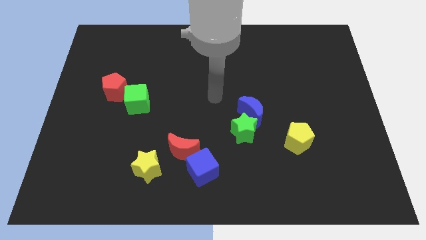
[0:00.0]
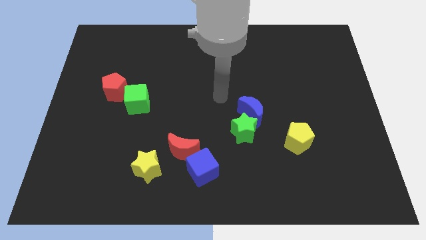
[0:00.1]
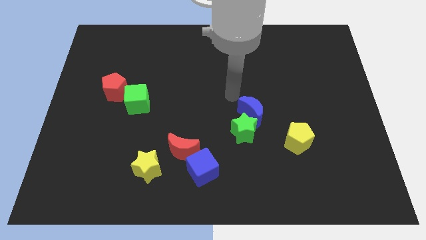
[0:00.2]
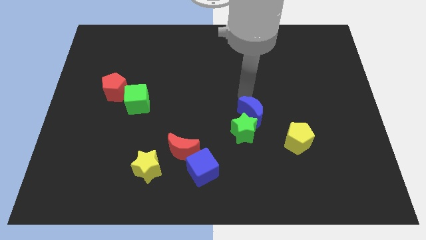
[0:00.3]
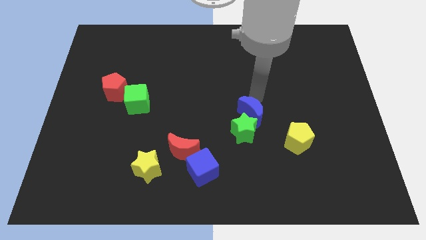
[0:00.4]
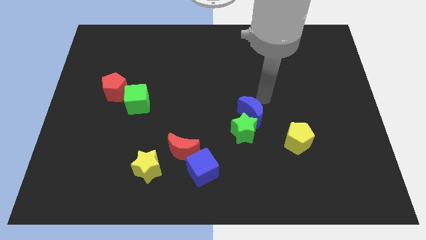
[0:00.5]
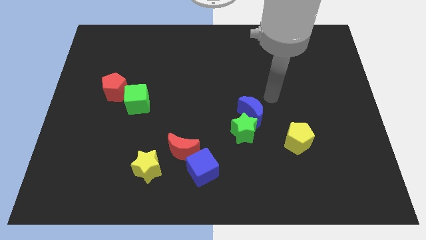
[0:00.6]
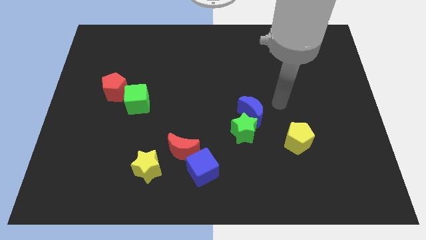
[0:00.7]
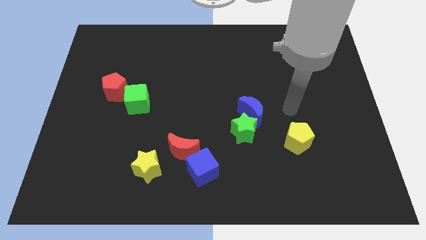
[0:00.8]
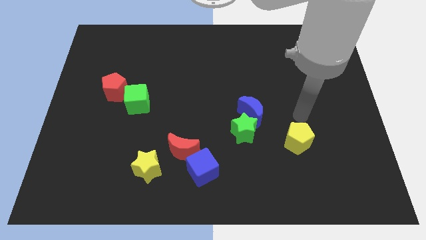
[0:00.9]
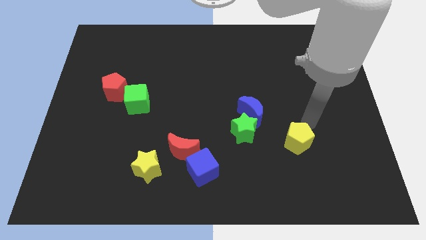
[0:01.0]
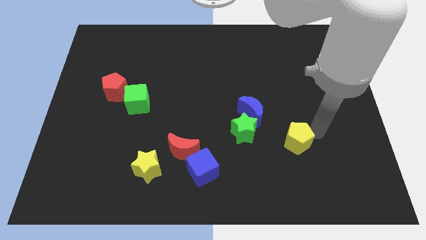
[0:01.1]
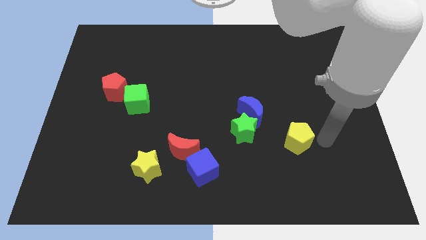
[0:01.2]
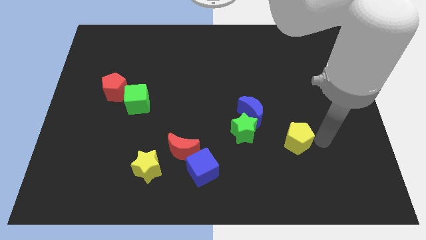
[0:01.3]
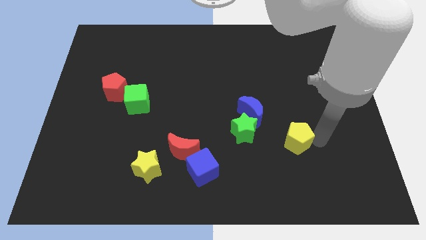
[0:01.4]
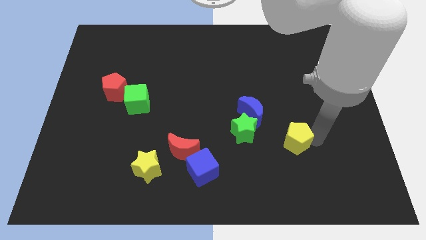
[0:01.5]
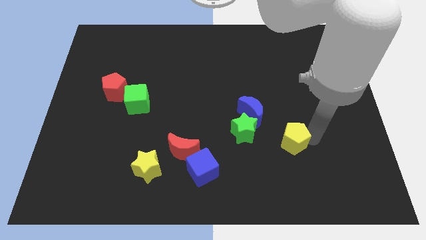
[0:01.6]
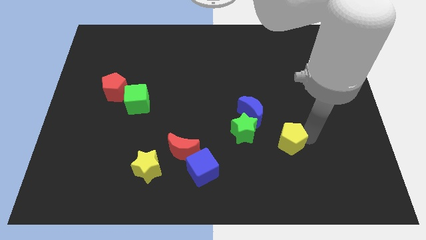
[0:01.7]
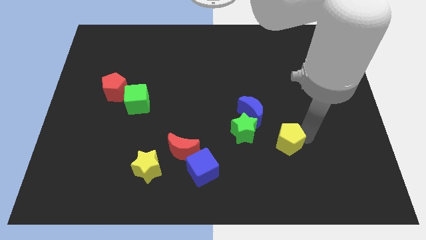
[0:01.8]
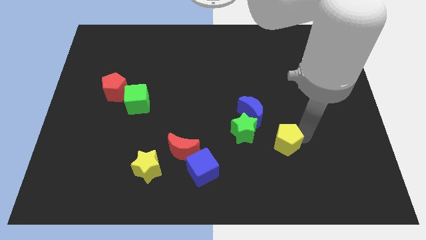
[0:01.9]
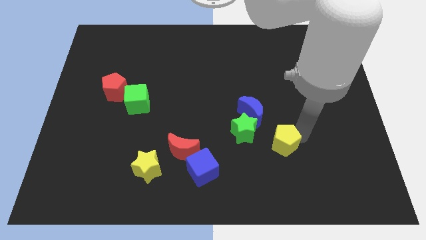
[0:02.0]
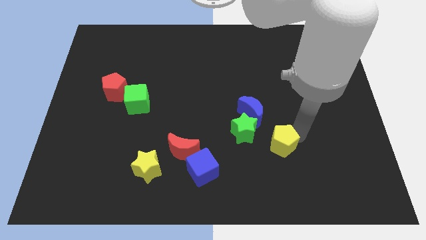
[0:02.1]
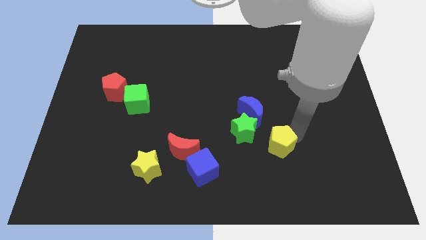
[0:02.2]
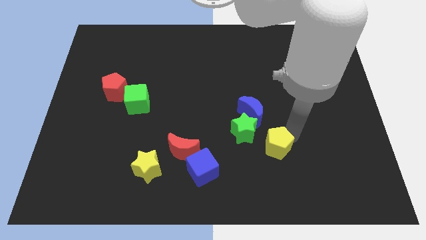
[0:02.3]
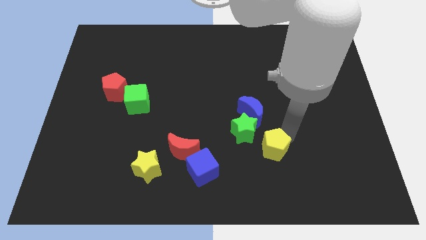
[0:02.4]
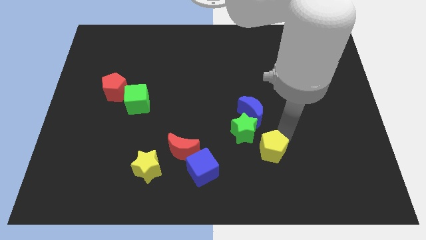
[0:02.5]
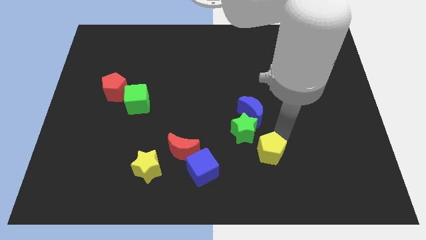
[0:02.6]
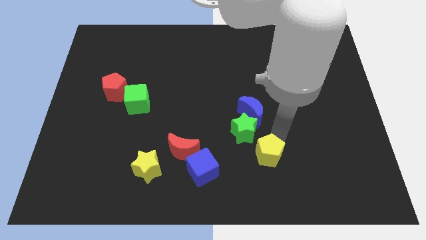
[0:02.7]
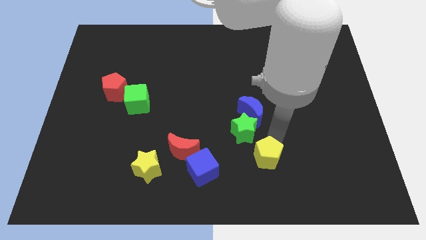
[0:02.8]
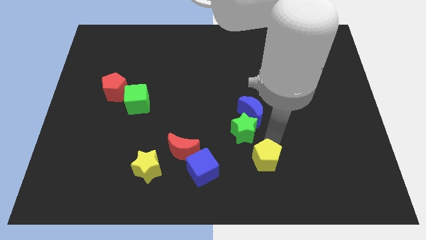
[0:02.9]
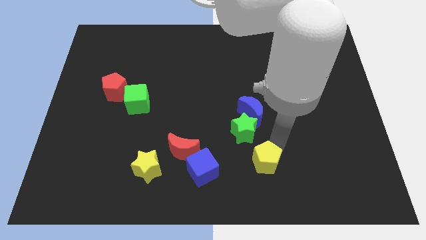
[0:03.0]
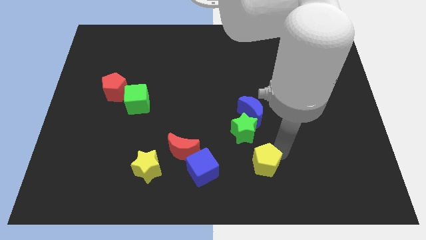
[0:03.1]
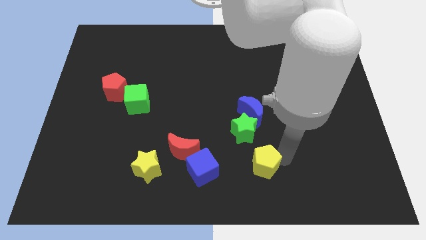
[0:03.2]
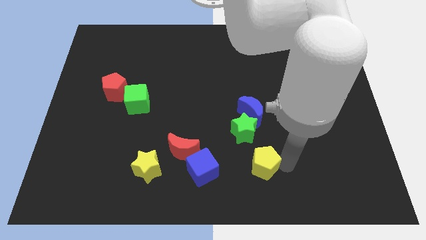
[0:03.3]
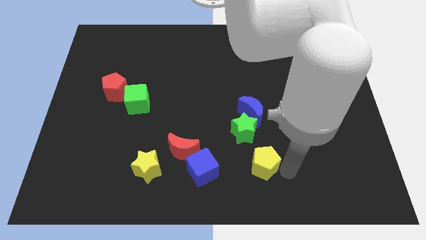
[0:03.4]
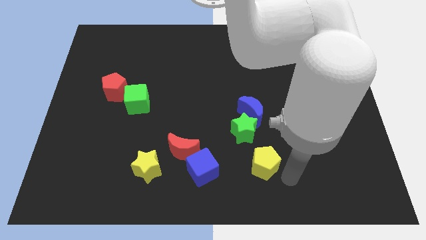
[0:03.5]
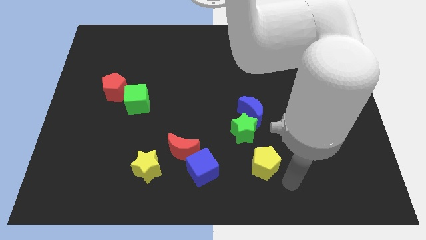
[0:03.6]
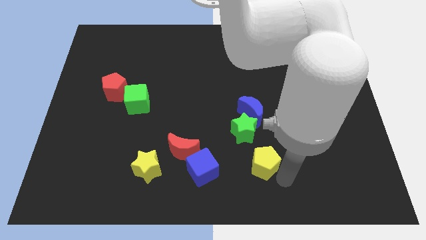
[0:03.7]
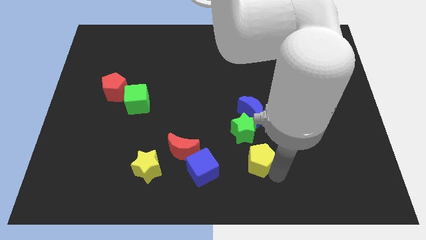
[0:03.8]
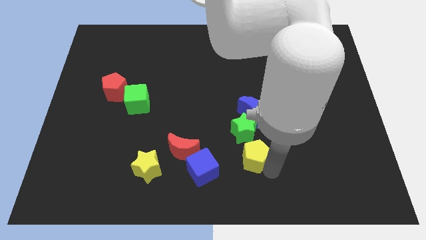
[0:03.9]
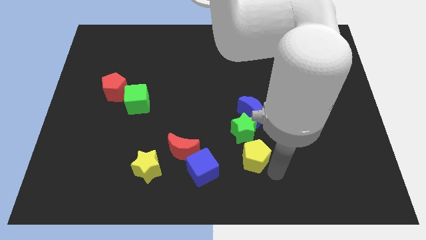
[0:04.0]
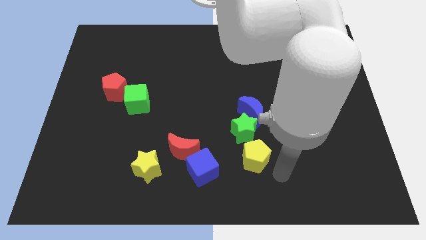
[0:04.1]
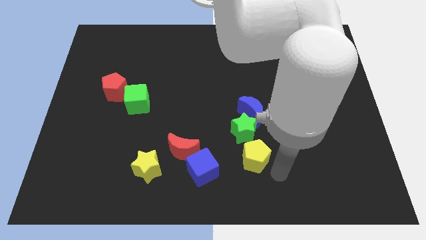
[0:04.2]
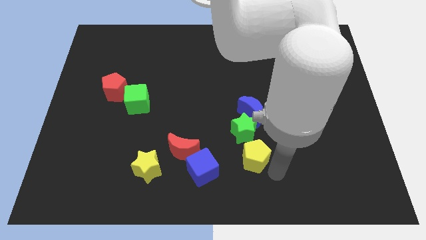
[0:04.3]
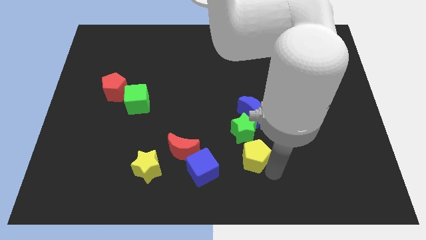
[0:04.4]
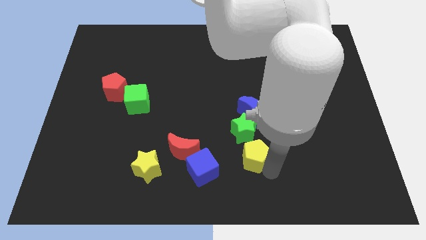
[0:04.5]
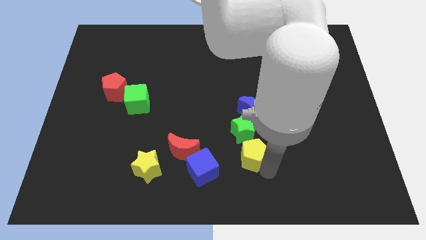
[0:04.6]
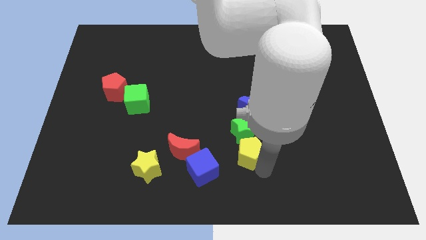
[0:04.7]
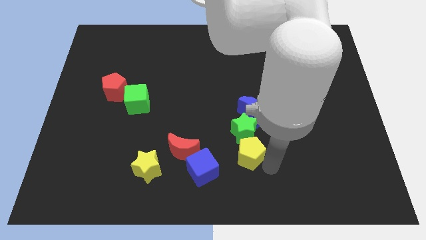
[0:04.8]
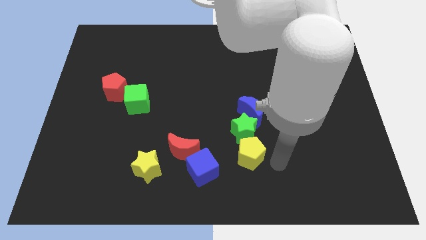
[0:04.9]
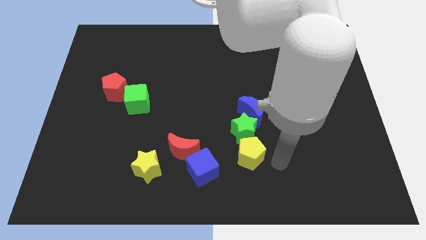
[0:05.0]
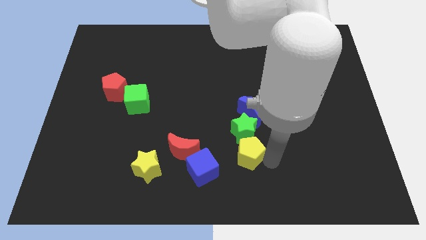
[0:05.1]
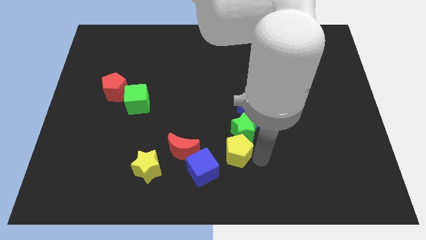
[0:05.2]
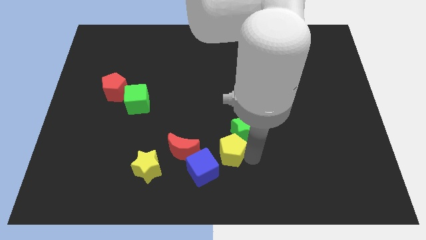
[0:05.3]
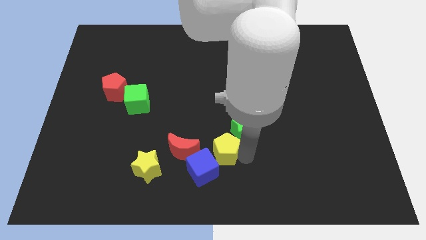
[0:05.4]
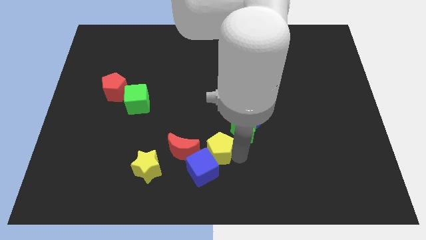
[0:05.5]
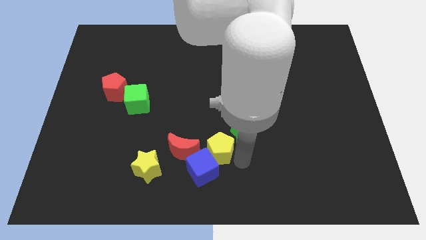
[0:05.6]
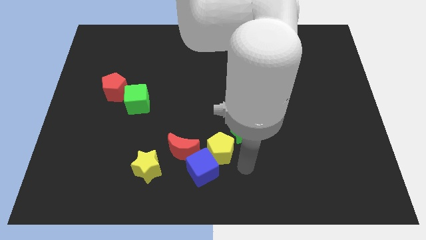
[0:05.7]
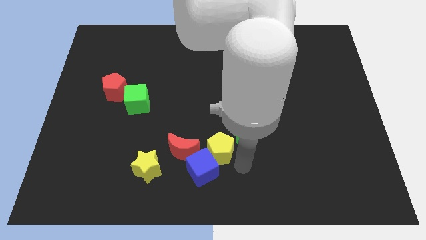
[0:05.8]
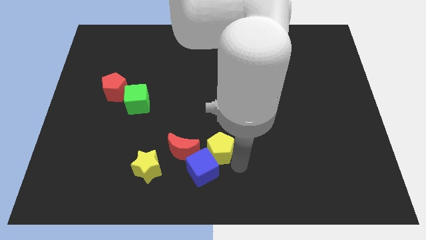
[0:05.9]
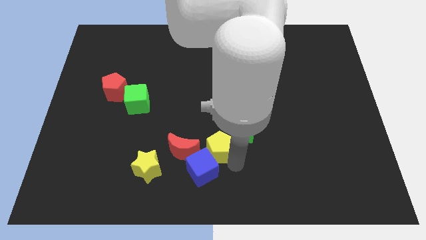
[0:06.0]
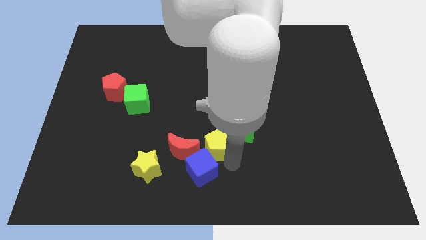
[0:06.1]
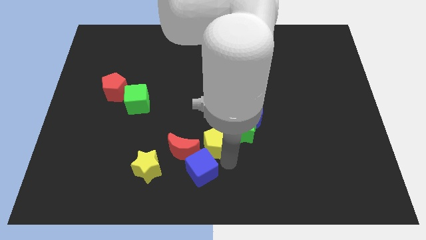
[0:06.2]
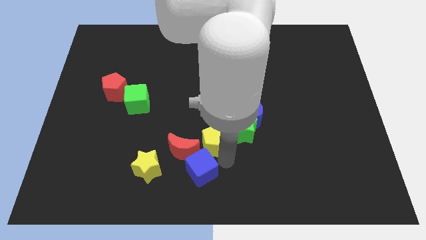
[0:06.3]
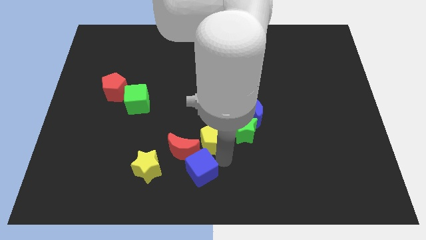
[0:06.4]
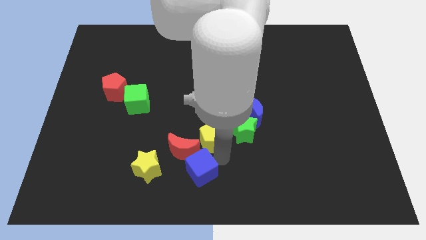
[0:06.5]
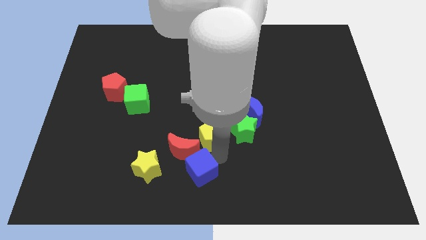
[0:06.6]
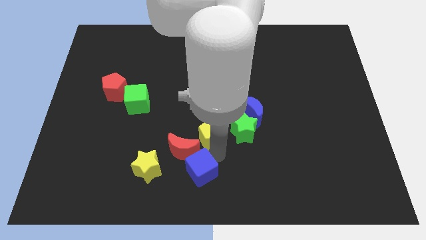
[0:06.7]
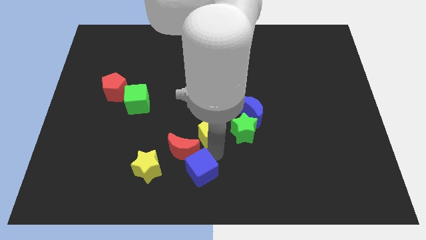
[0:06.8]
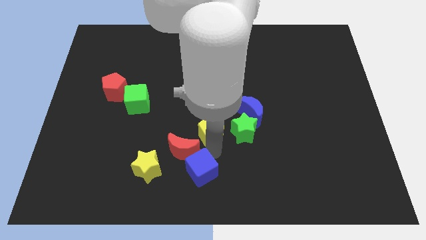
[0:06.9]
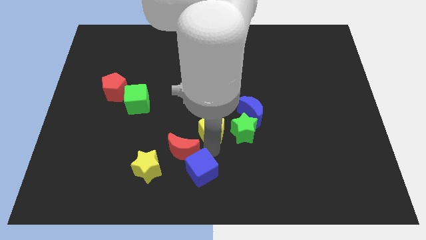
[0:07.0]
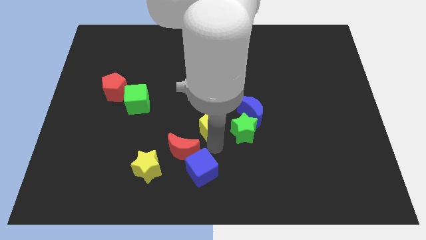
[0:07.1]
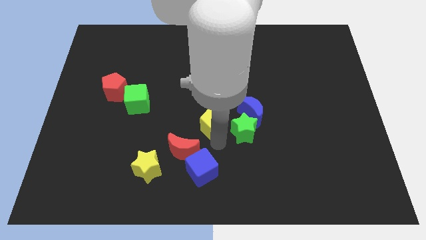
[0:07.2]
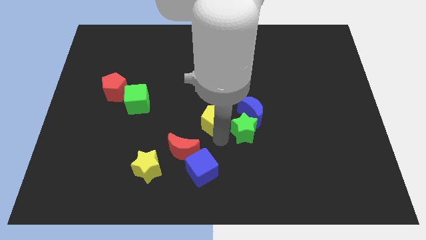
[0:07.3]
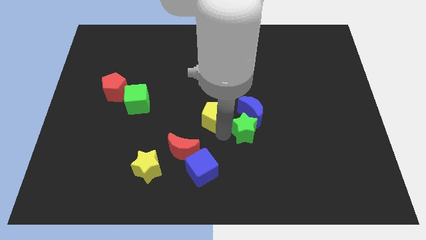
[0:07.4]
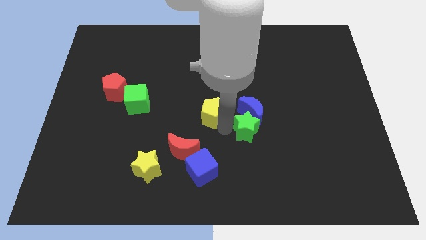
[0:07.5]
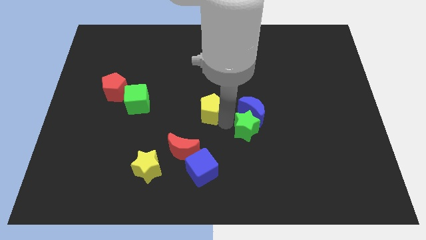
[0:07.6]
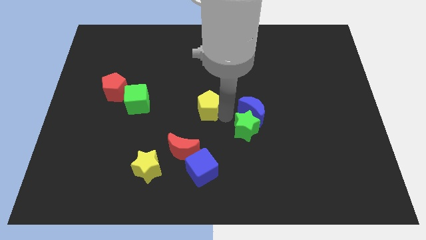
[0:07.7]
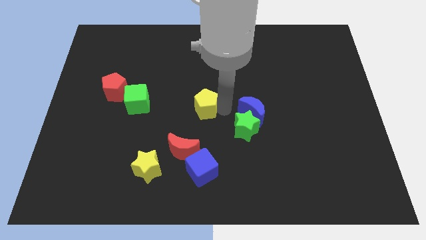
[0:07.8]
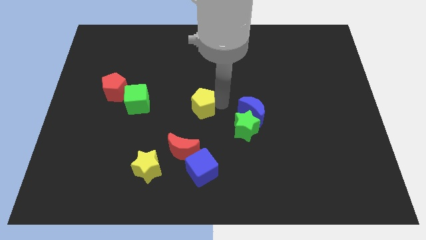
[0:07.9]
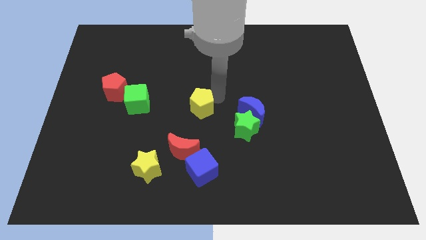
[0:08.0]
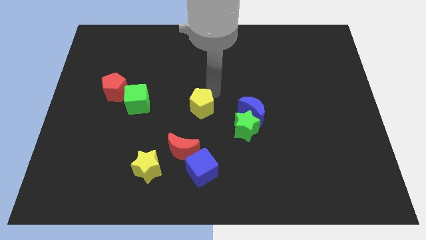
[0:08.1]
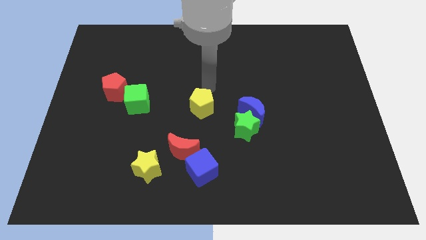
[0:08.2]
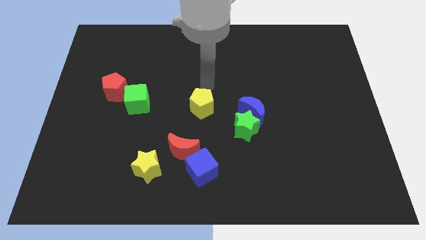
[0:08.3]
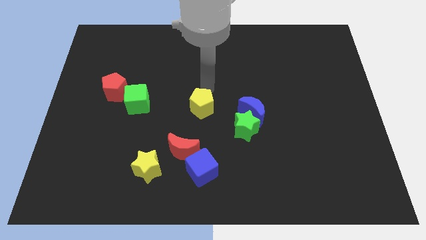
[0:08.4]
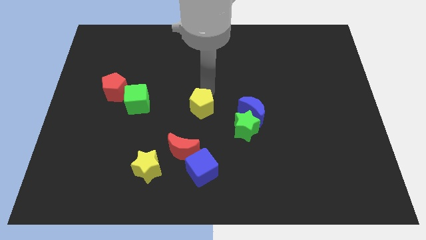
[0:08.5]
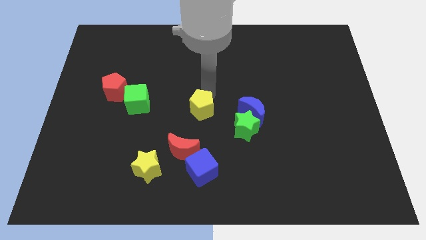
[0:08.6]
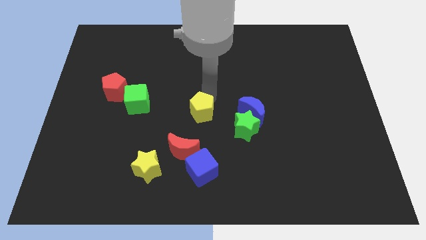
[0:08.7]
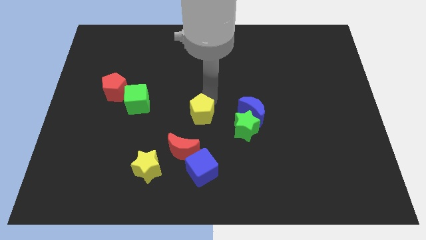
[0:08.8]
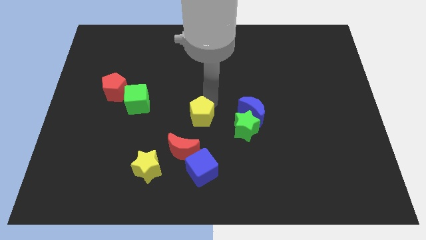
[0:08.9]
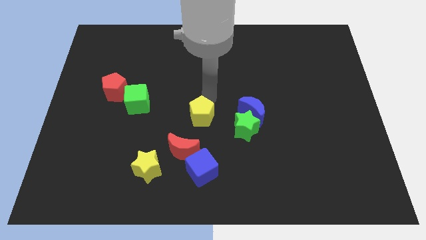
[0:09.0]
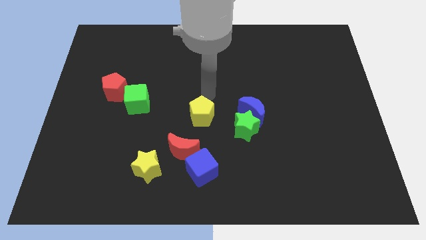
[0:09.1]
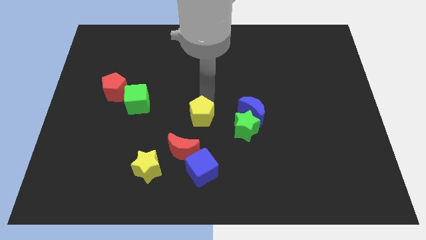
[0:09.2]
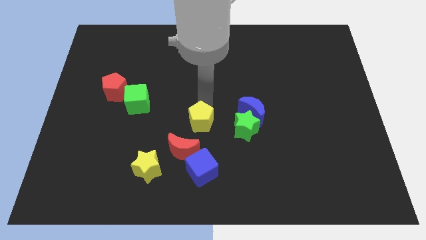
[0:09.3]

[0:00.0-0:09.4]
push the yellow pentagon left
